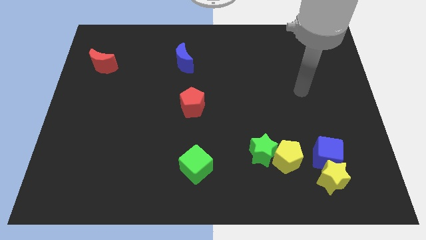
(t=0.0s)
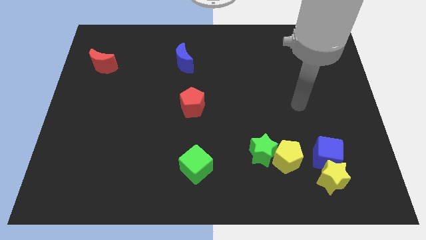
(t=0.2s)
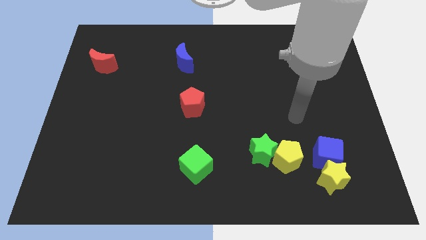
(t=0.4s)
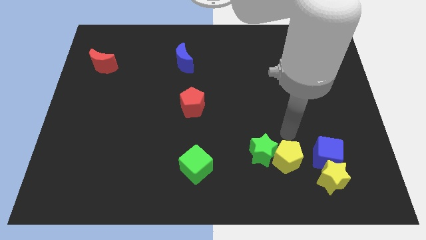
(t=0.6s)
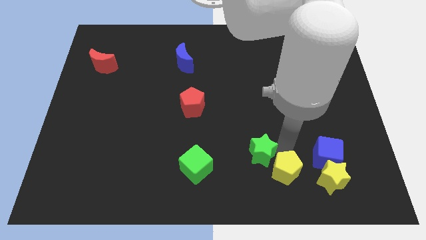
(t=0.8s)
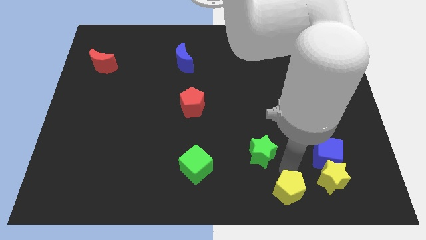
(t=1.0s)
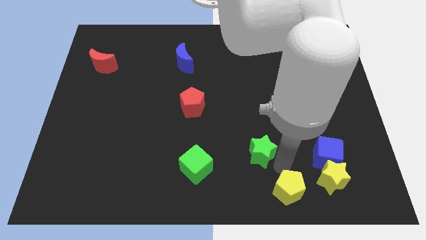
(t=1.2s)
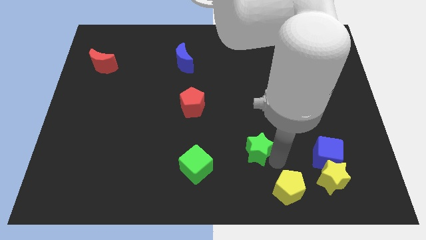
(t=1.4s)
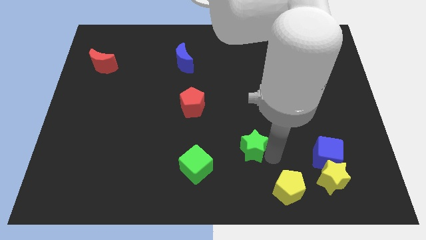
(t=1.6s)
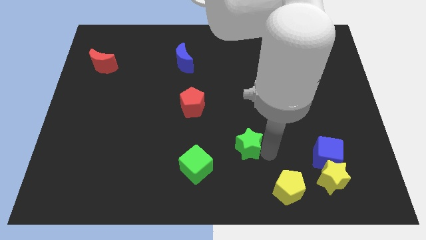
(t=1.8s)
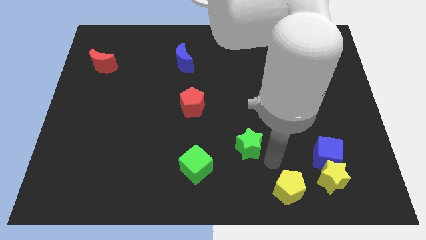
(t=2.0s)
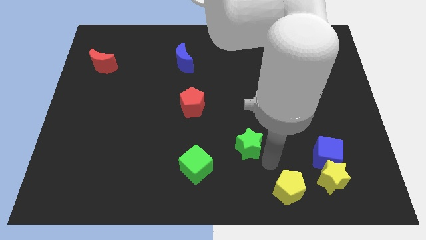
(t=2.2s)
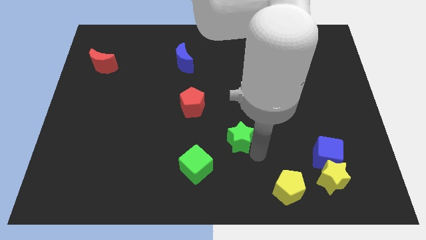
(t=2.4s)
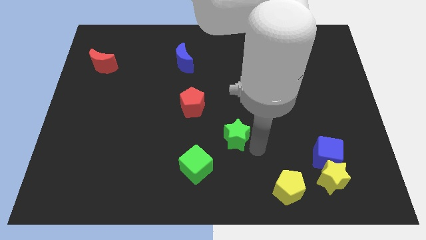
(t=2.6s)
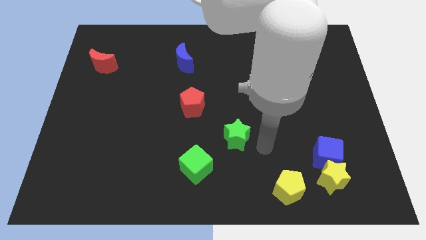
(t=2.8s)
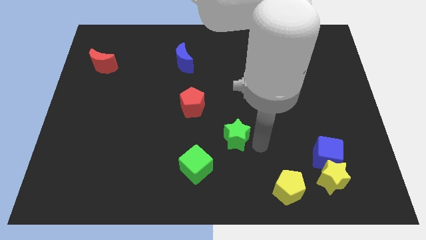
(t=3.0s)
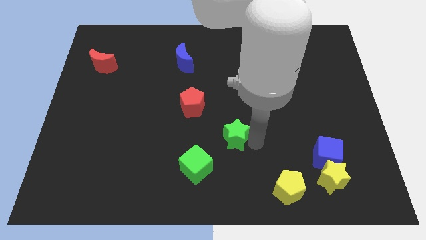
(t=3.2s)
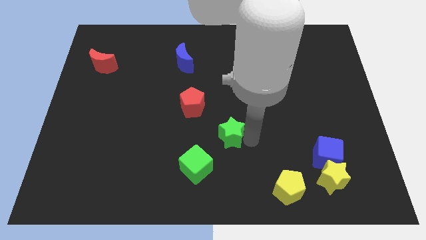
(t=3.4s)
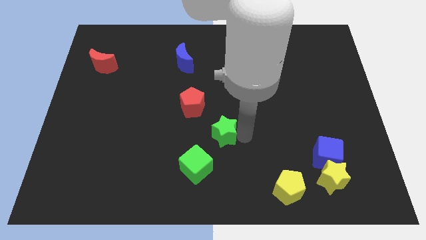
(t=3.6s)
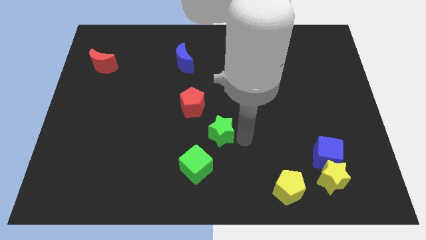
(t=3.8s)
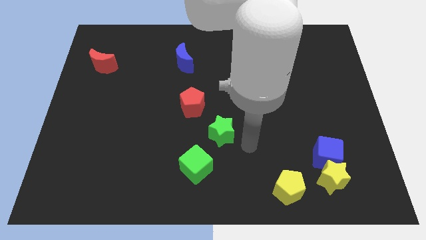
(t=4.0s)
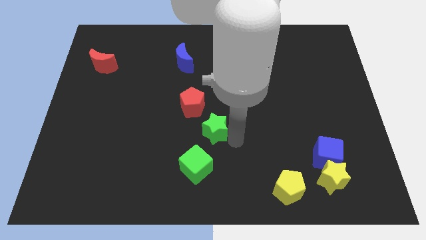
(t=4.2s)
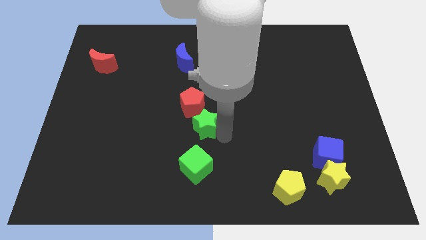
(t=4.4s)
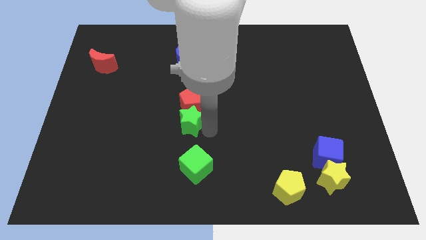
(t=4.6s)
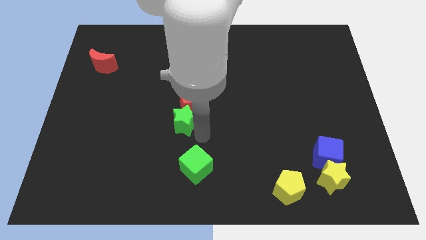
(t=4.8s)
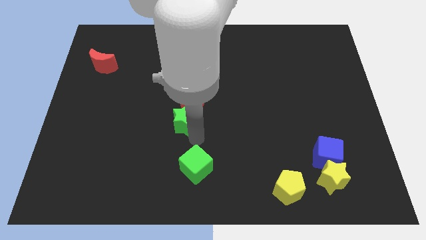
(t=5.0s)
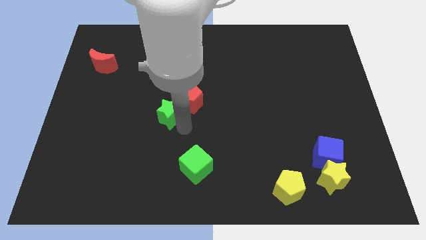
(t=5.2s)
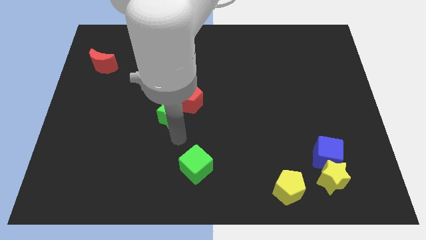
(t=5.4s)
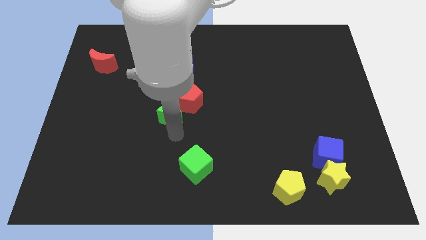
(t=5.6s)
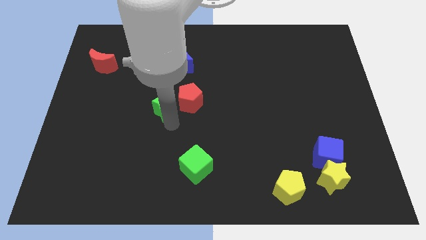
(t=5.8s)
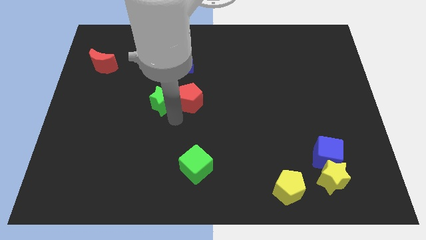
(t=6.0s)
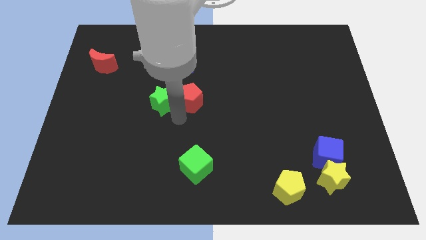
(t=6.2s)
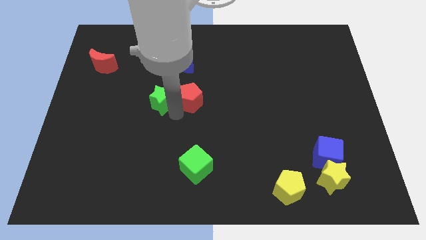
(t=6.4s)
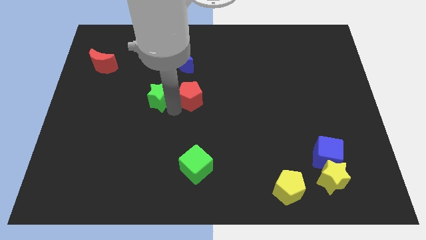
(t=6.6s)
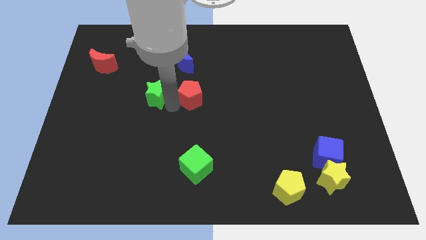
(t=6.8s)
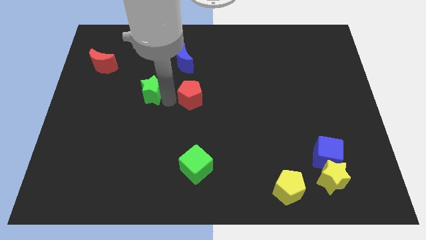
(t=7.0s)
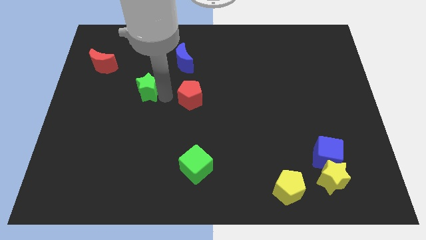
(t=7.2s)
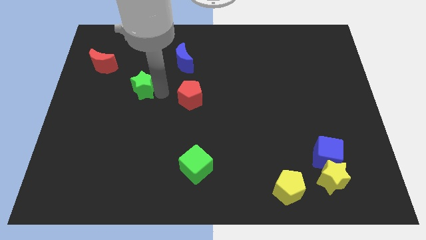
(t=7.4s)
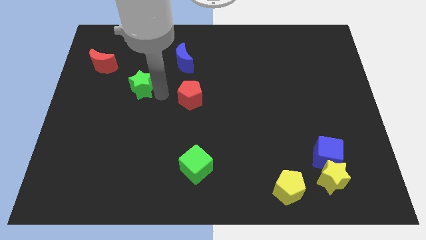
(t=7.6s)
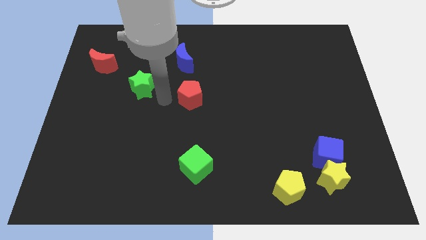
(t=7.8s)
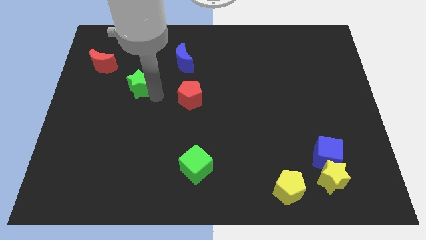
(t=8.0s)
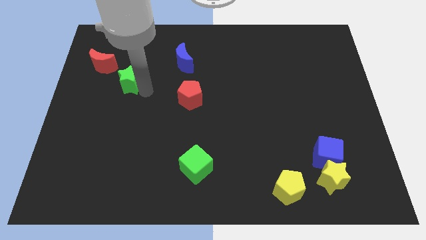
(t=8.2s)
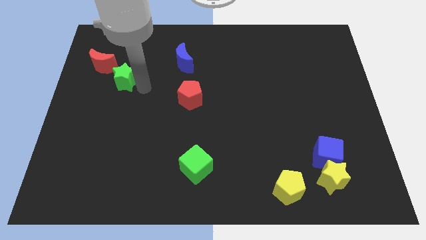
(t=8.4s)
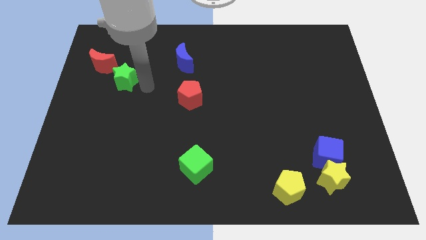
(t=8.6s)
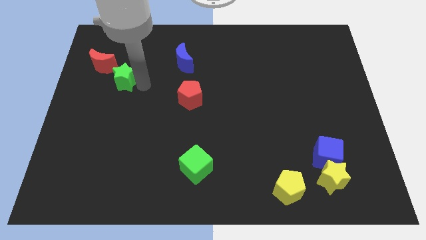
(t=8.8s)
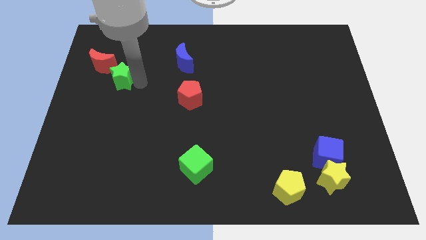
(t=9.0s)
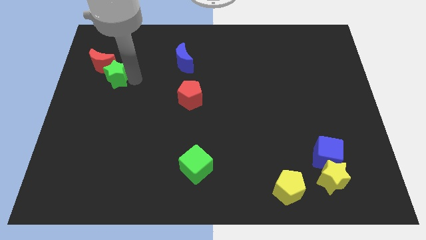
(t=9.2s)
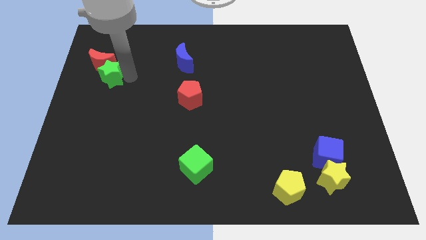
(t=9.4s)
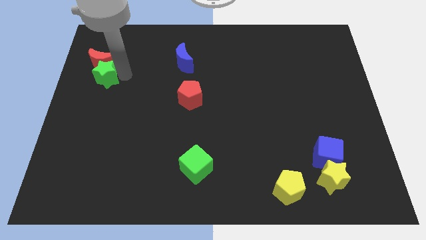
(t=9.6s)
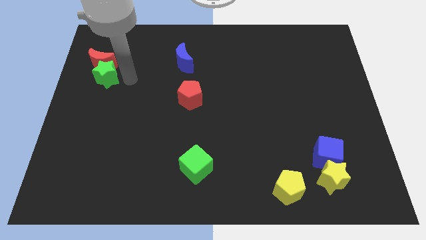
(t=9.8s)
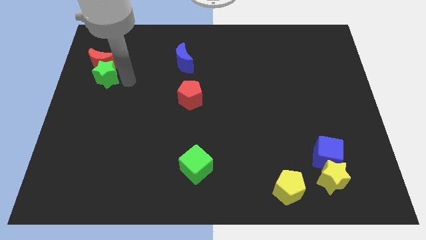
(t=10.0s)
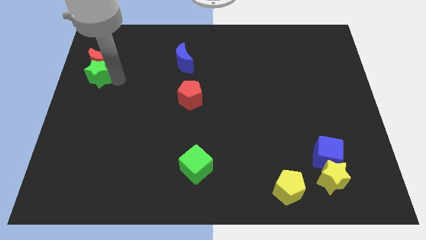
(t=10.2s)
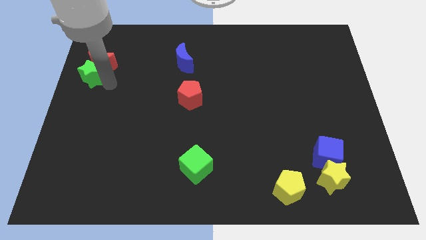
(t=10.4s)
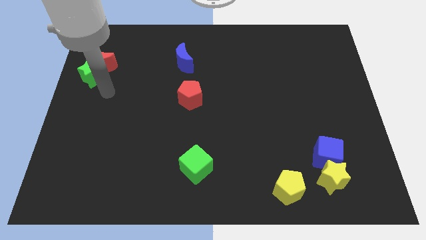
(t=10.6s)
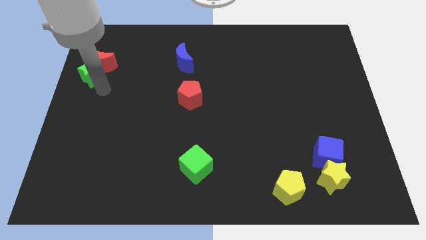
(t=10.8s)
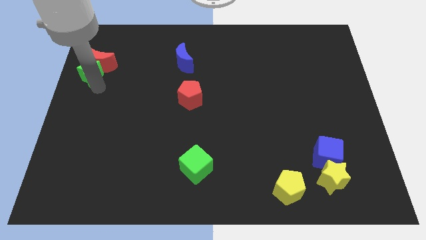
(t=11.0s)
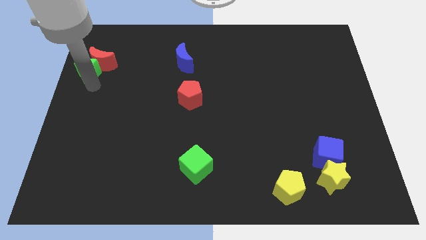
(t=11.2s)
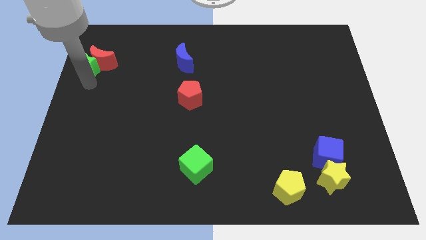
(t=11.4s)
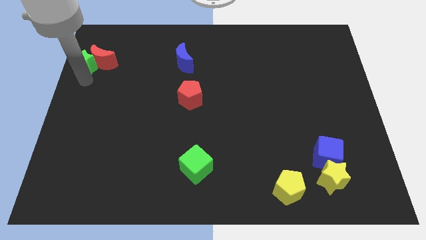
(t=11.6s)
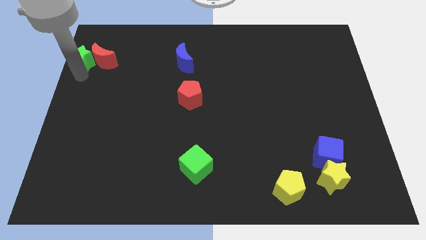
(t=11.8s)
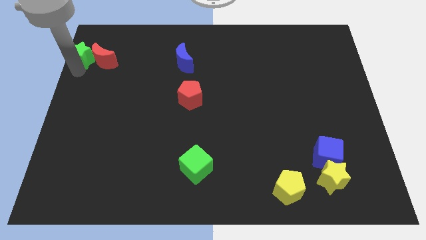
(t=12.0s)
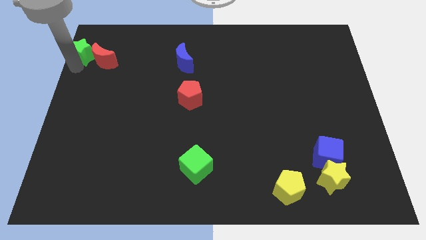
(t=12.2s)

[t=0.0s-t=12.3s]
move the green star to the upper left corner

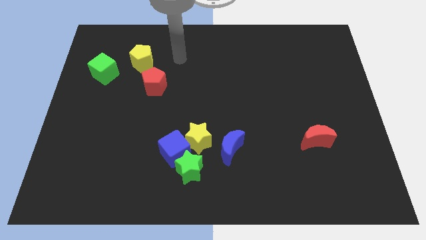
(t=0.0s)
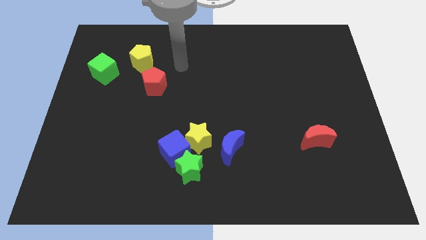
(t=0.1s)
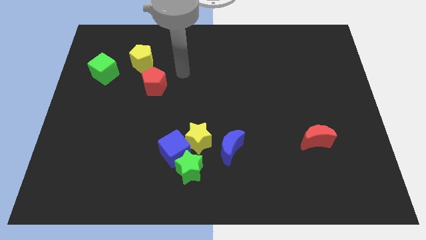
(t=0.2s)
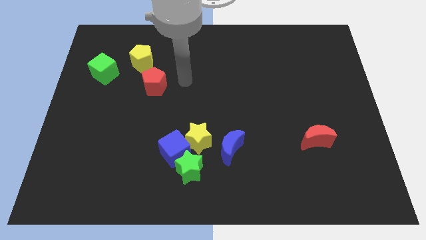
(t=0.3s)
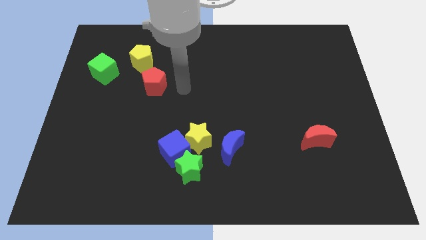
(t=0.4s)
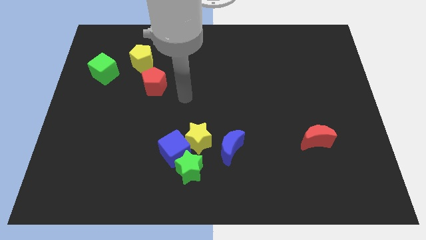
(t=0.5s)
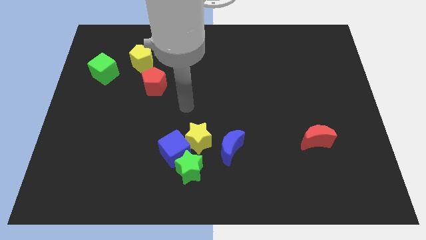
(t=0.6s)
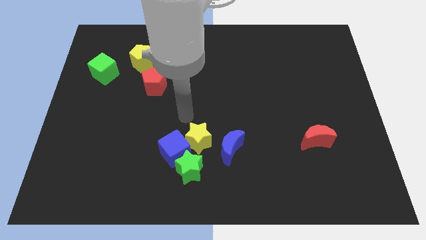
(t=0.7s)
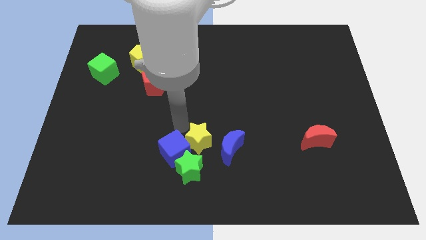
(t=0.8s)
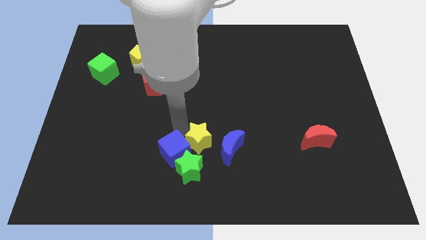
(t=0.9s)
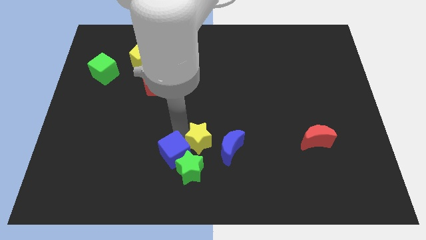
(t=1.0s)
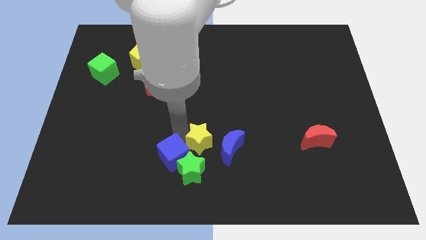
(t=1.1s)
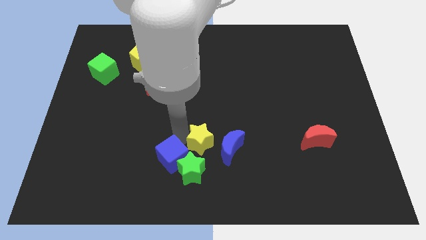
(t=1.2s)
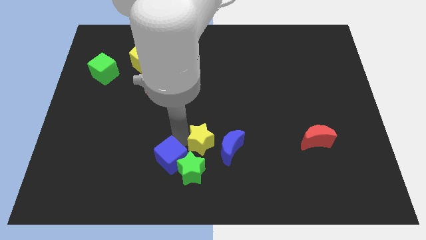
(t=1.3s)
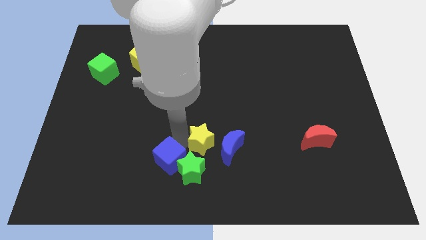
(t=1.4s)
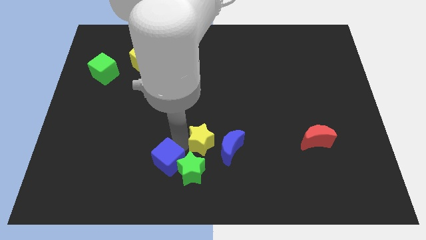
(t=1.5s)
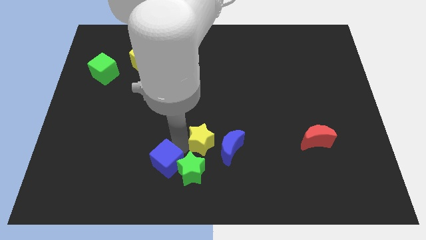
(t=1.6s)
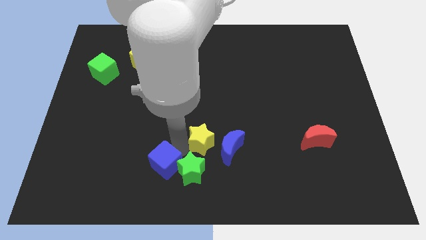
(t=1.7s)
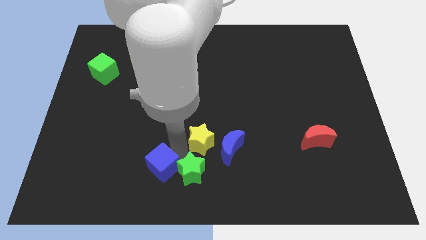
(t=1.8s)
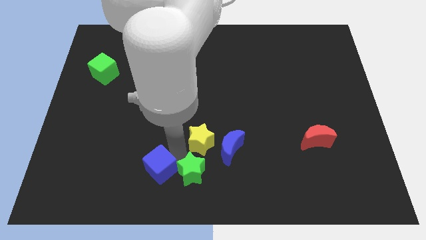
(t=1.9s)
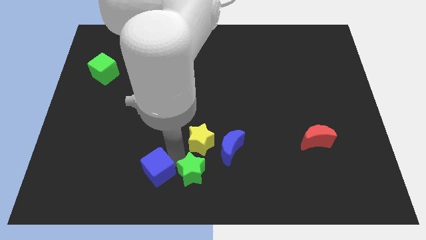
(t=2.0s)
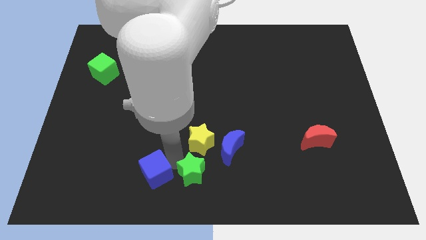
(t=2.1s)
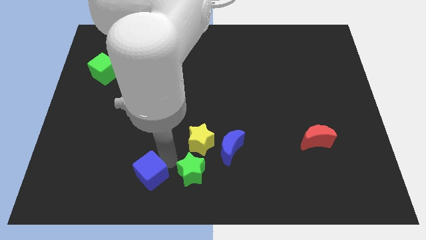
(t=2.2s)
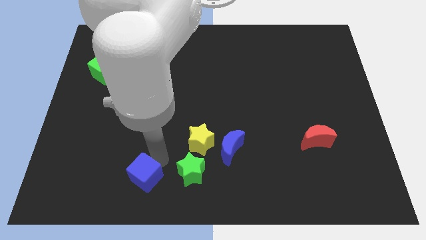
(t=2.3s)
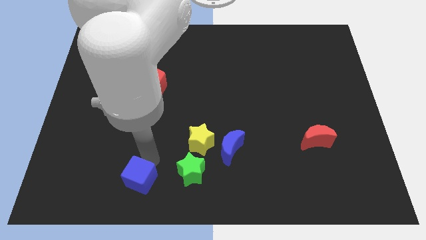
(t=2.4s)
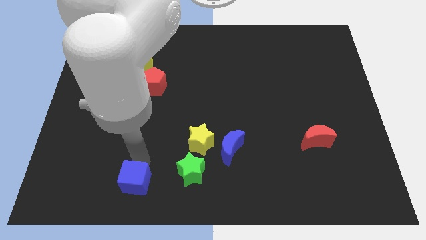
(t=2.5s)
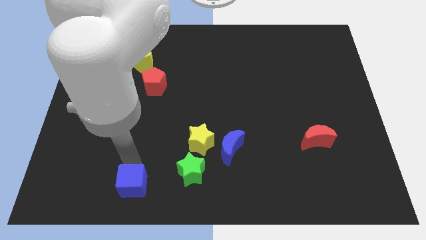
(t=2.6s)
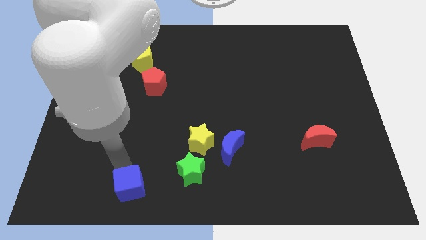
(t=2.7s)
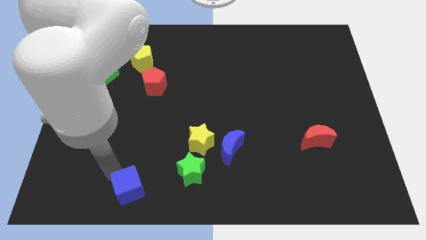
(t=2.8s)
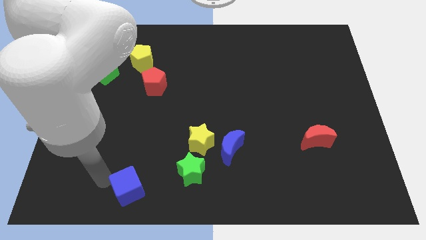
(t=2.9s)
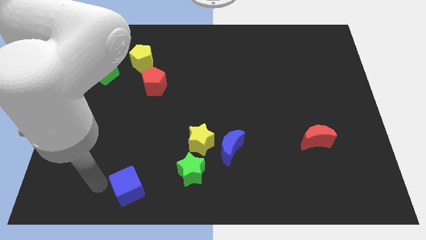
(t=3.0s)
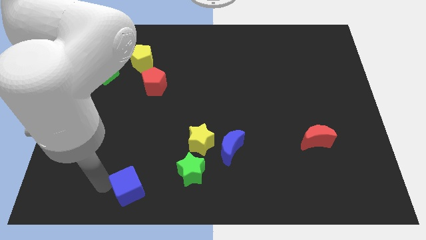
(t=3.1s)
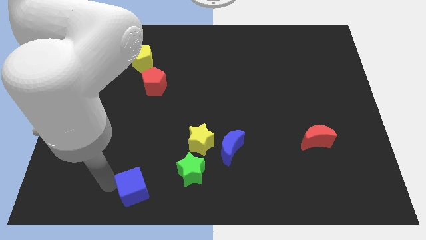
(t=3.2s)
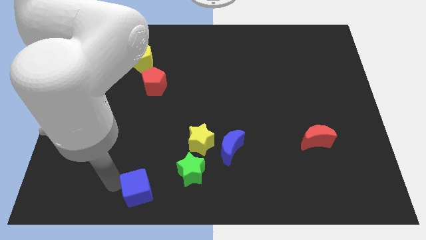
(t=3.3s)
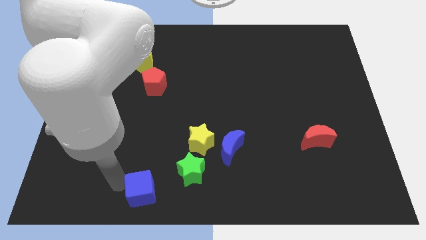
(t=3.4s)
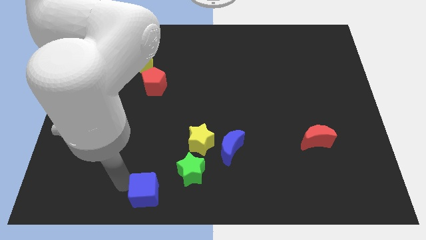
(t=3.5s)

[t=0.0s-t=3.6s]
slide the blue cube to the bottom side
